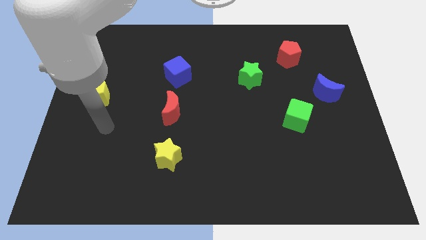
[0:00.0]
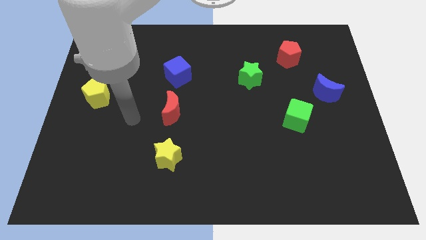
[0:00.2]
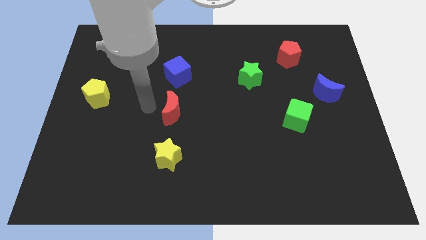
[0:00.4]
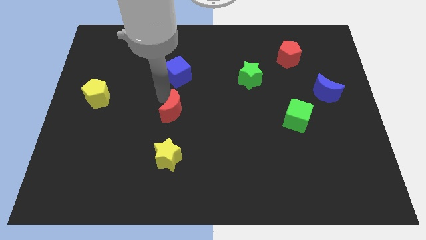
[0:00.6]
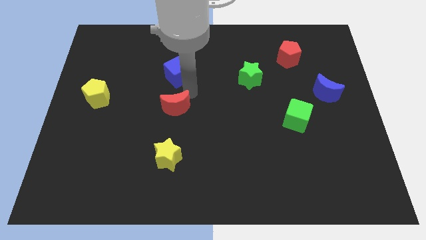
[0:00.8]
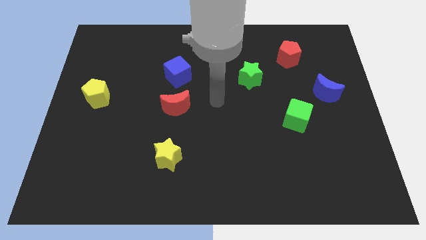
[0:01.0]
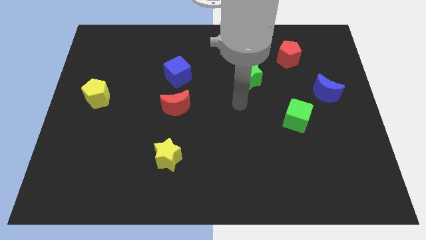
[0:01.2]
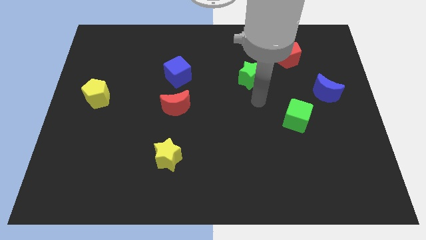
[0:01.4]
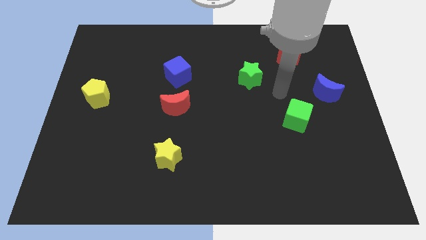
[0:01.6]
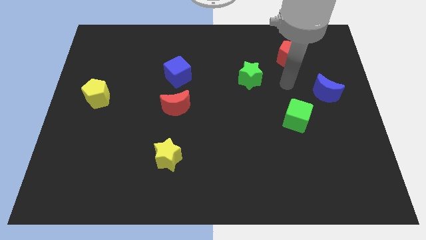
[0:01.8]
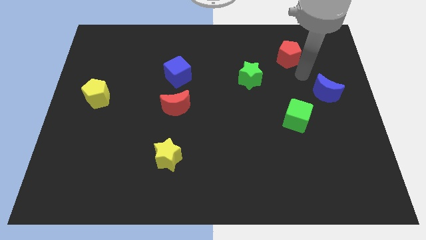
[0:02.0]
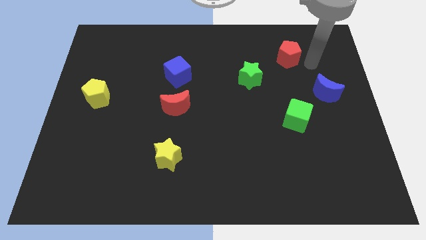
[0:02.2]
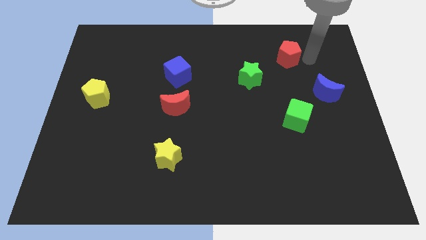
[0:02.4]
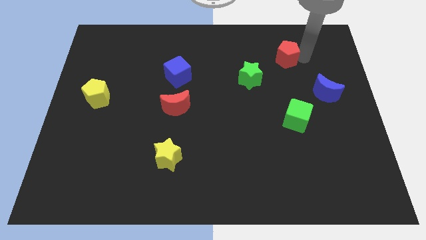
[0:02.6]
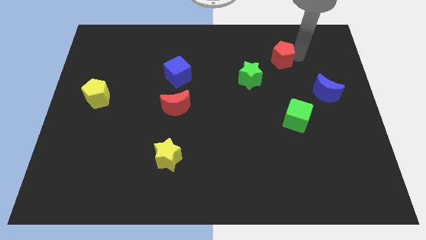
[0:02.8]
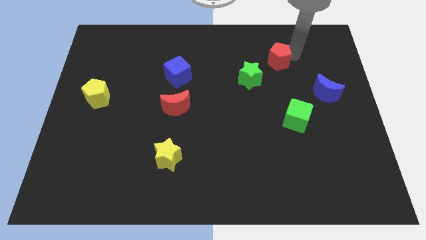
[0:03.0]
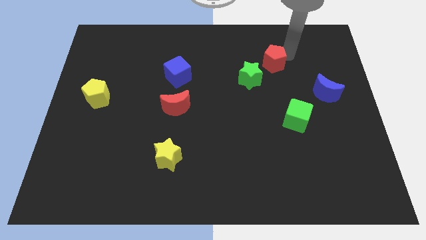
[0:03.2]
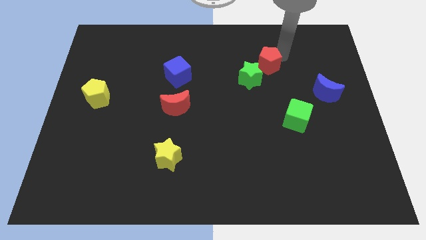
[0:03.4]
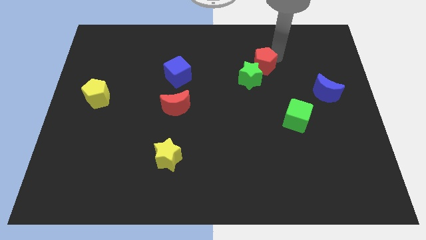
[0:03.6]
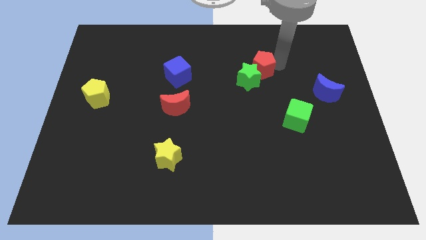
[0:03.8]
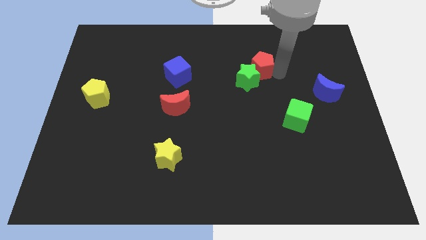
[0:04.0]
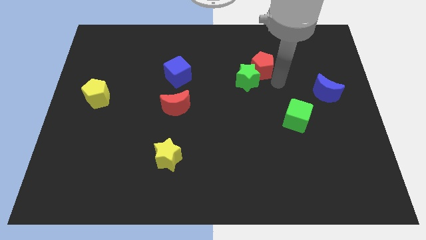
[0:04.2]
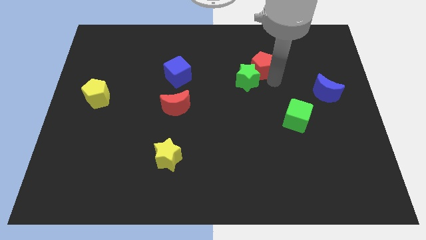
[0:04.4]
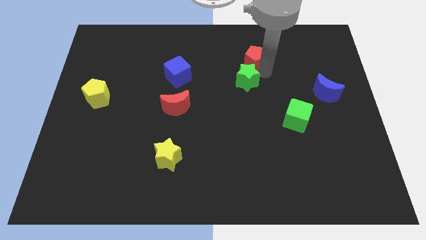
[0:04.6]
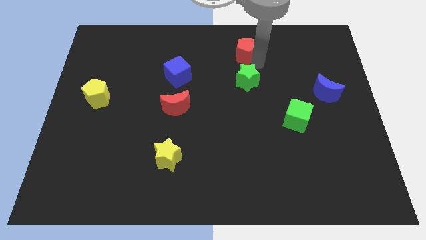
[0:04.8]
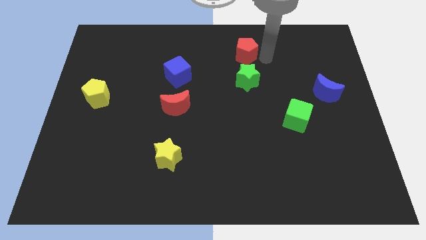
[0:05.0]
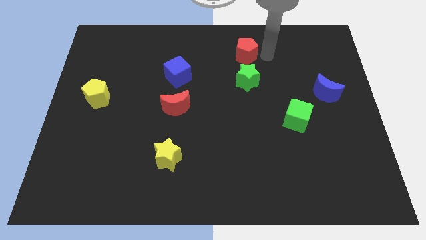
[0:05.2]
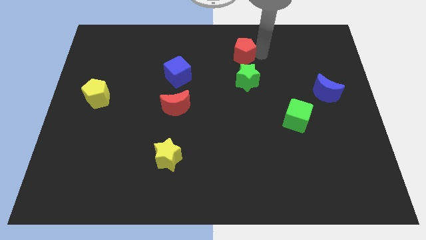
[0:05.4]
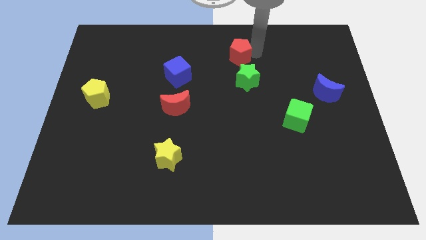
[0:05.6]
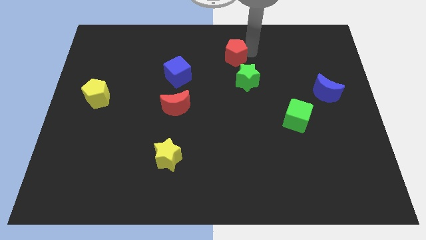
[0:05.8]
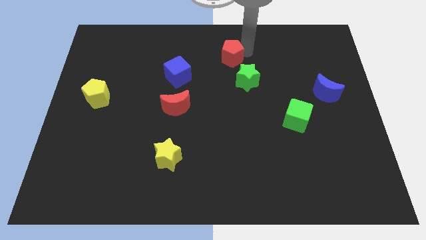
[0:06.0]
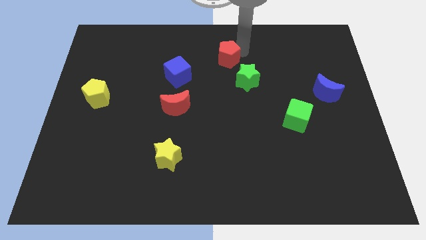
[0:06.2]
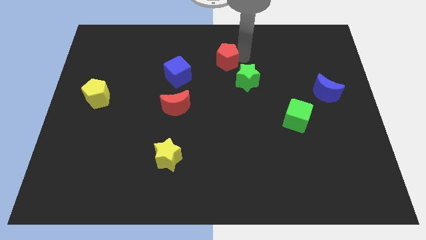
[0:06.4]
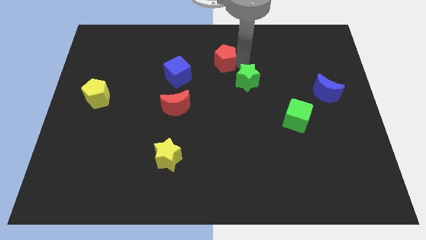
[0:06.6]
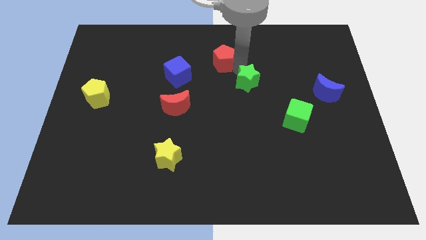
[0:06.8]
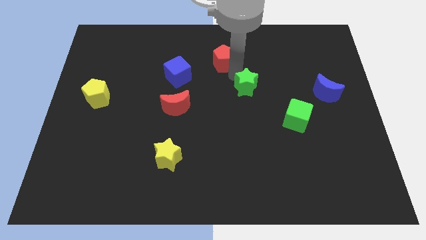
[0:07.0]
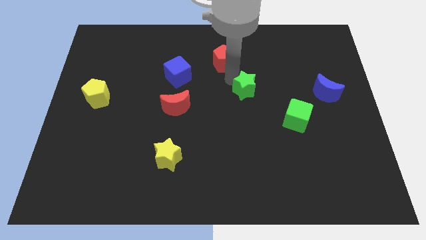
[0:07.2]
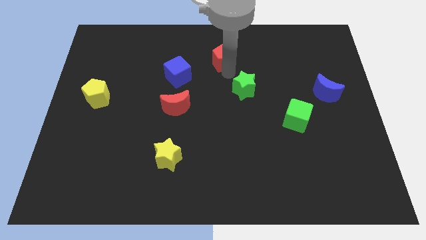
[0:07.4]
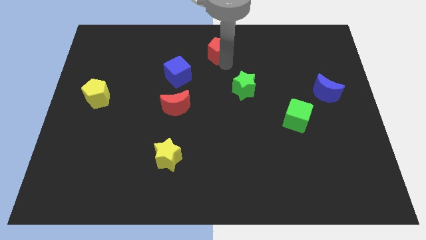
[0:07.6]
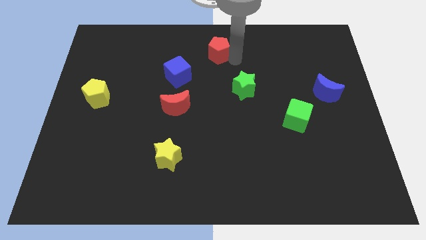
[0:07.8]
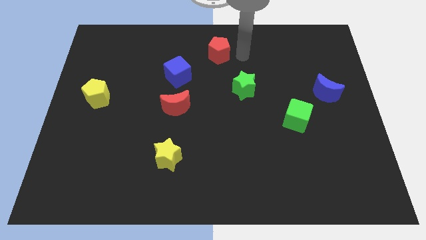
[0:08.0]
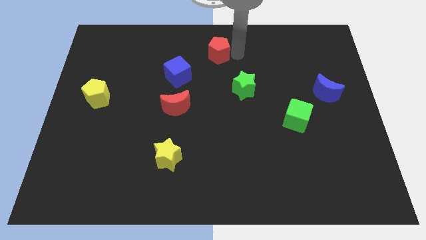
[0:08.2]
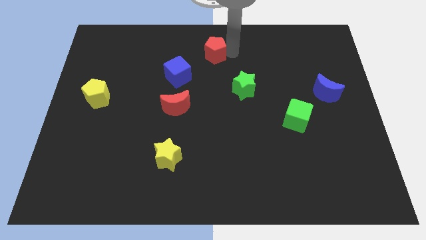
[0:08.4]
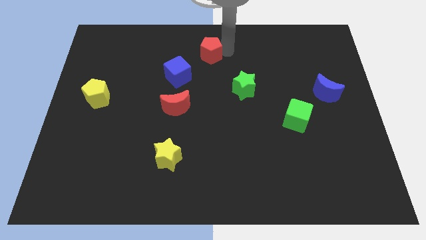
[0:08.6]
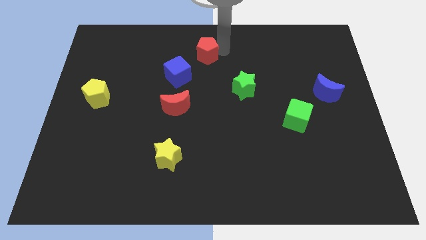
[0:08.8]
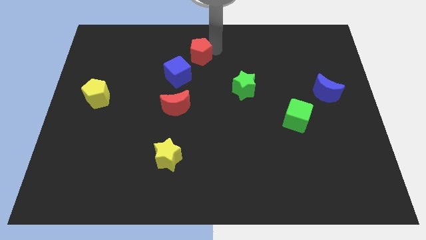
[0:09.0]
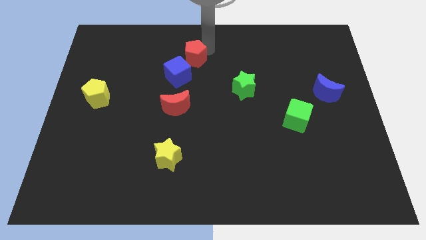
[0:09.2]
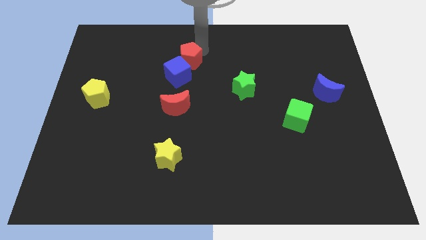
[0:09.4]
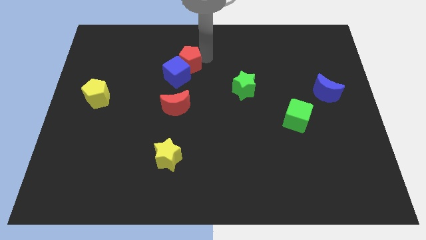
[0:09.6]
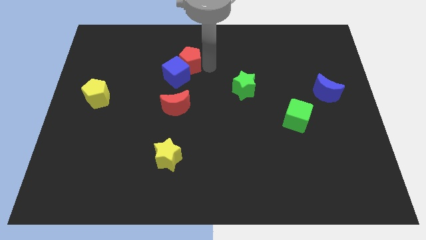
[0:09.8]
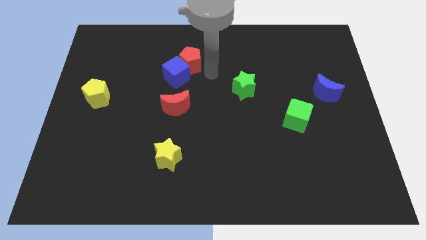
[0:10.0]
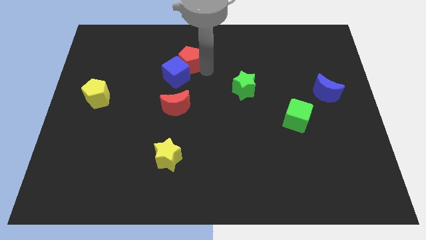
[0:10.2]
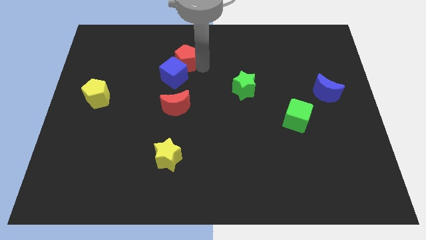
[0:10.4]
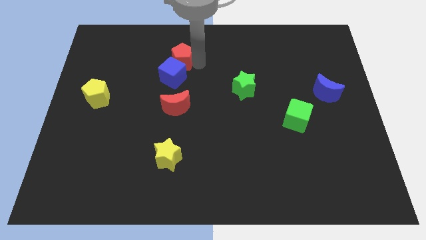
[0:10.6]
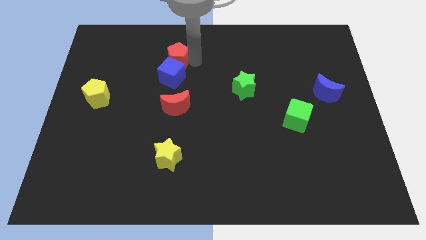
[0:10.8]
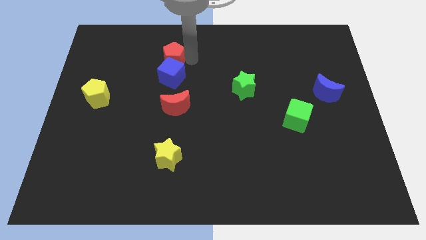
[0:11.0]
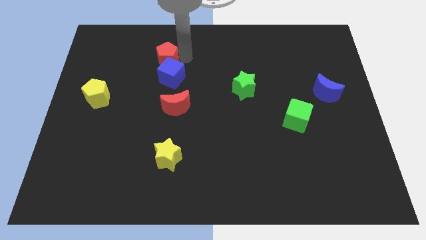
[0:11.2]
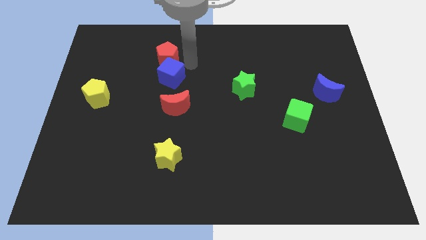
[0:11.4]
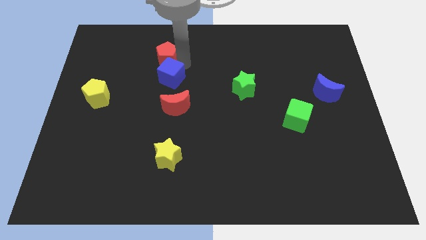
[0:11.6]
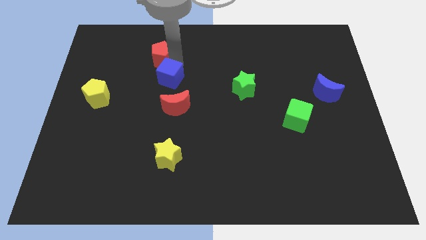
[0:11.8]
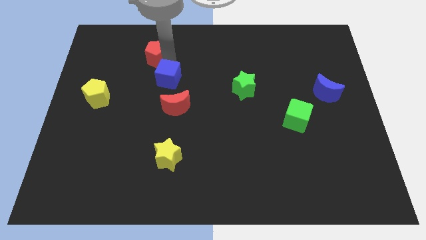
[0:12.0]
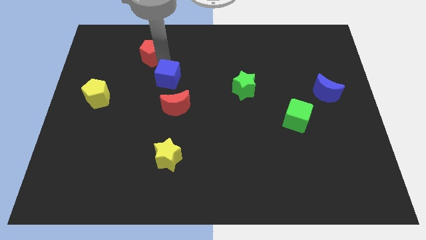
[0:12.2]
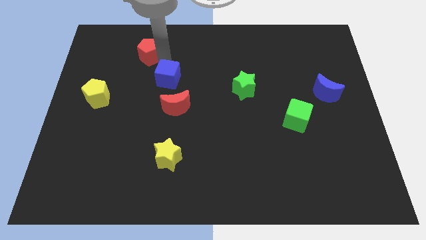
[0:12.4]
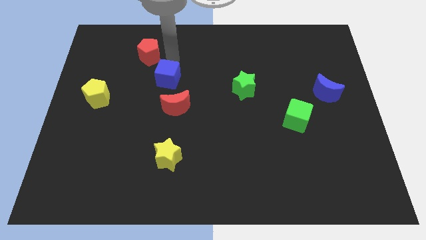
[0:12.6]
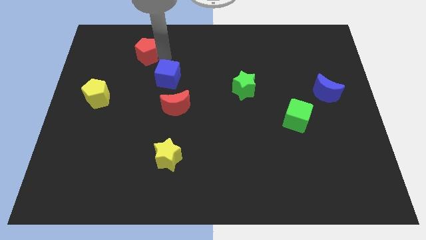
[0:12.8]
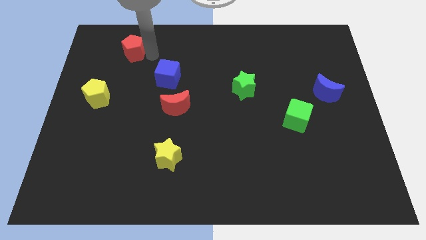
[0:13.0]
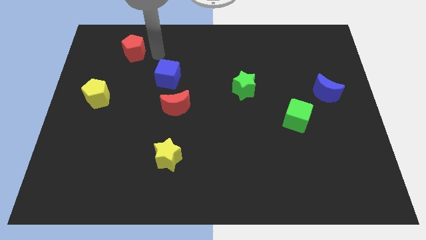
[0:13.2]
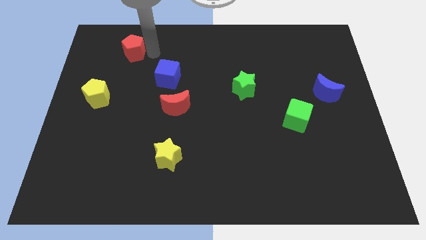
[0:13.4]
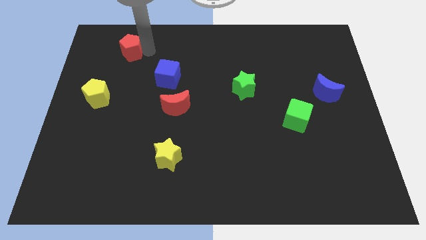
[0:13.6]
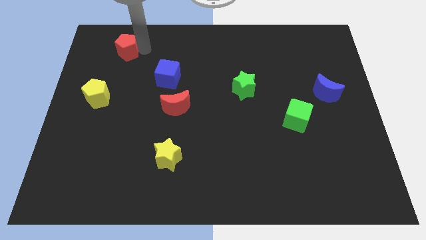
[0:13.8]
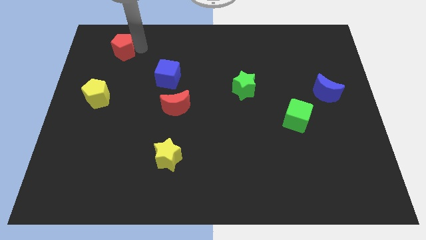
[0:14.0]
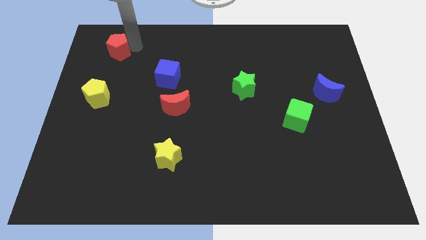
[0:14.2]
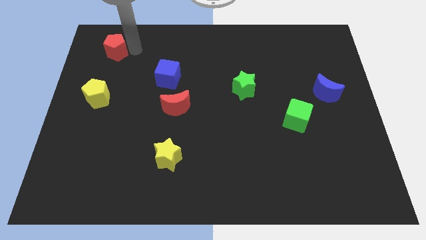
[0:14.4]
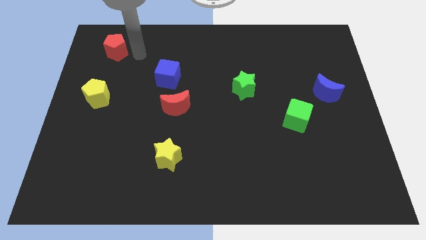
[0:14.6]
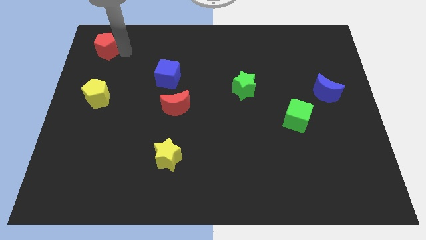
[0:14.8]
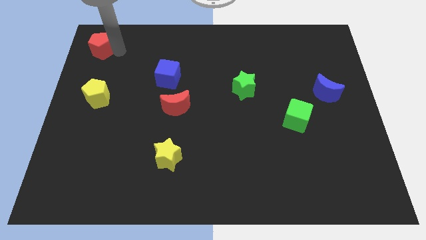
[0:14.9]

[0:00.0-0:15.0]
push the red pentagon to the top left
